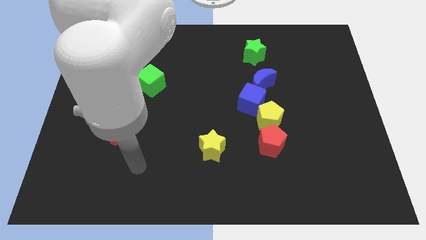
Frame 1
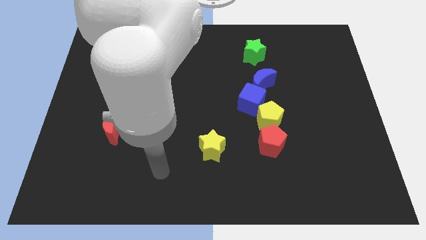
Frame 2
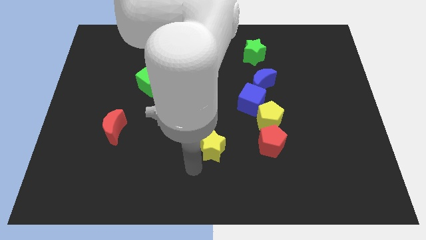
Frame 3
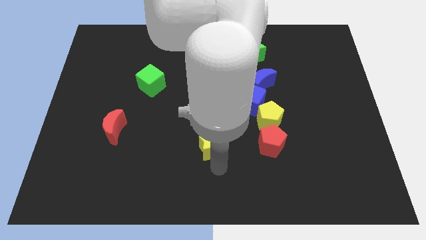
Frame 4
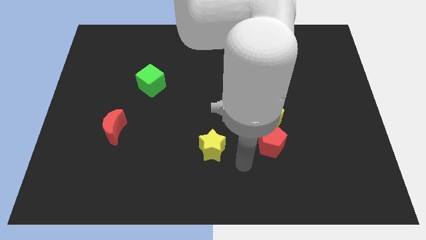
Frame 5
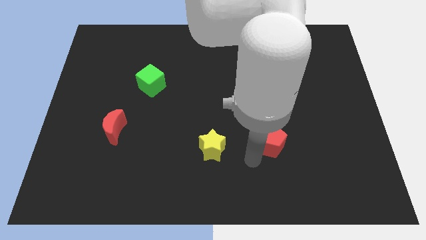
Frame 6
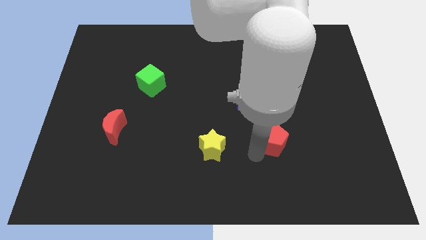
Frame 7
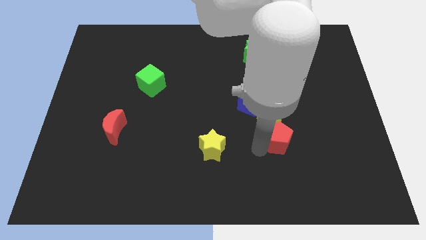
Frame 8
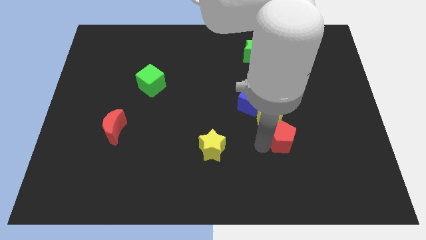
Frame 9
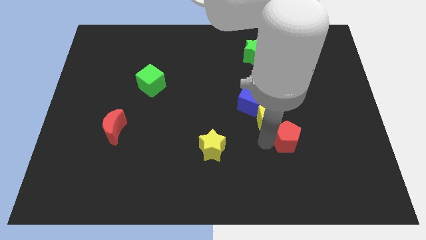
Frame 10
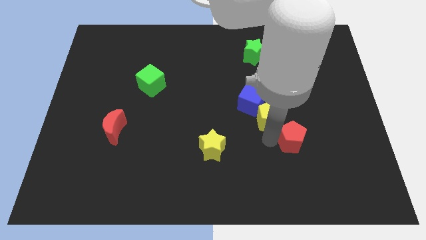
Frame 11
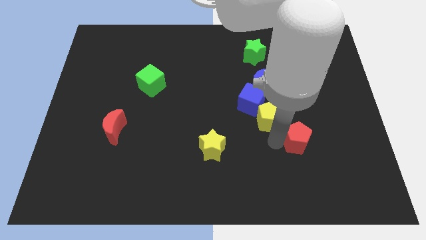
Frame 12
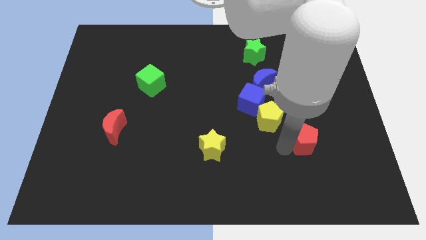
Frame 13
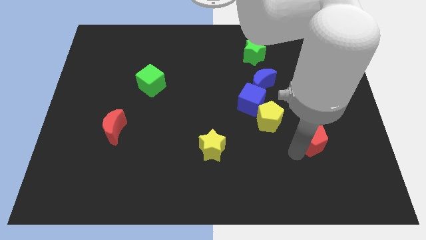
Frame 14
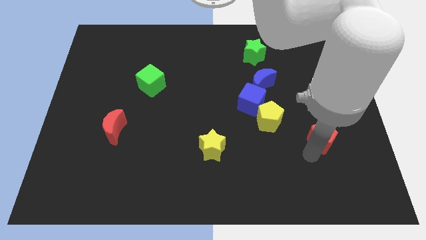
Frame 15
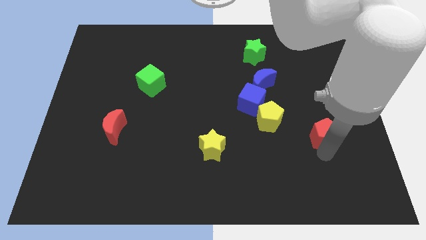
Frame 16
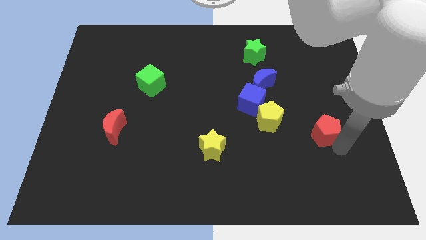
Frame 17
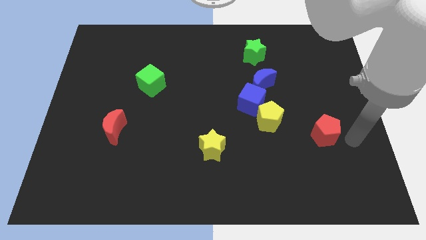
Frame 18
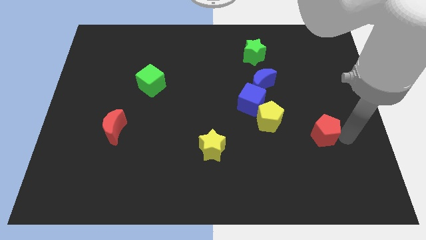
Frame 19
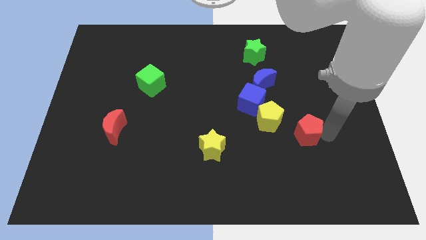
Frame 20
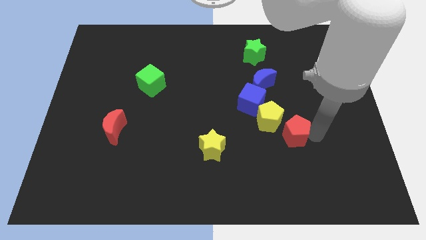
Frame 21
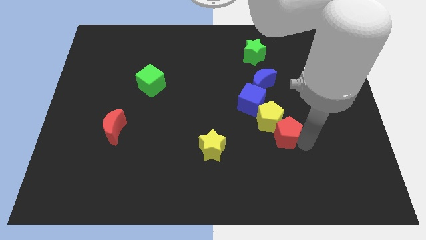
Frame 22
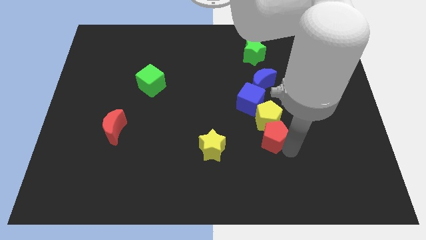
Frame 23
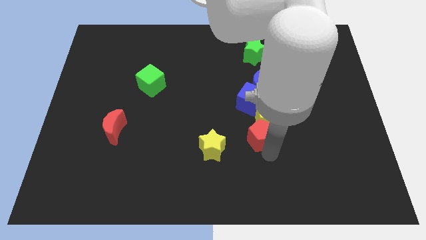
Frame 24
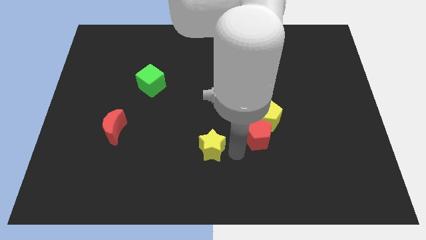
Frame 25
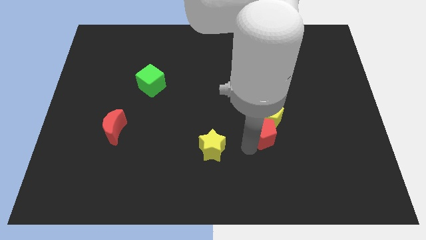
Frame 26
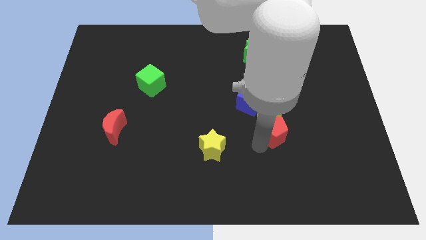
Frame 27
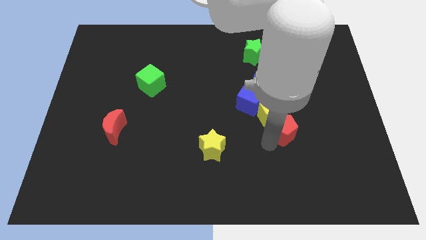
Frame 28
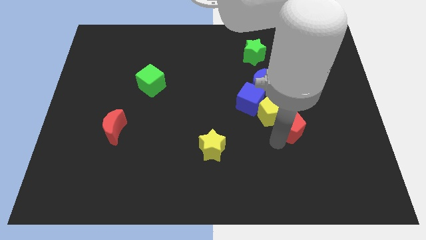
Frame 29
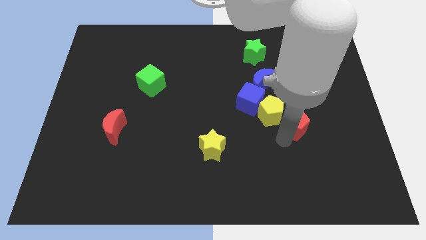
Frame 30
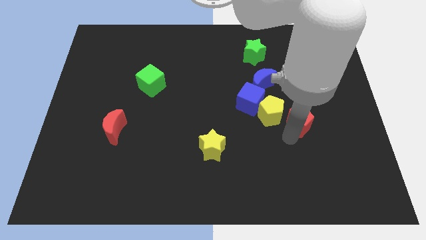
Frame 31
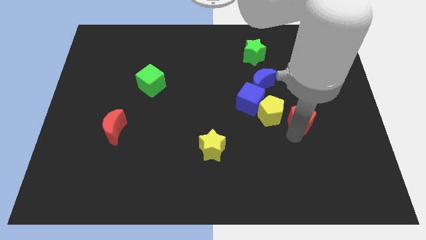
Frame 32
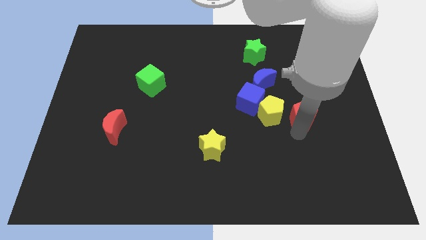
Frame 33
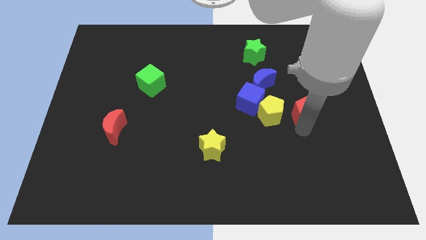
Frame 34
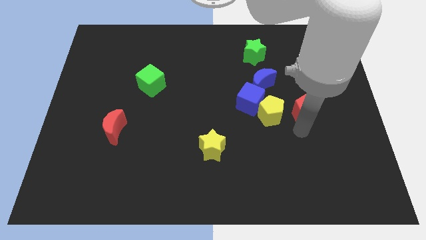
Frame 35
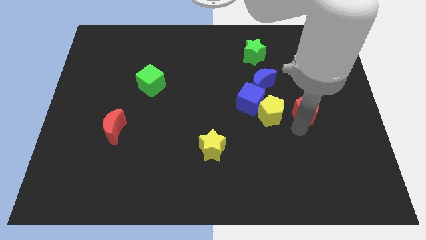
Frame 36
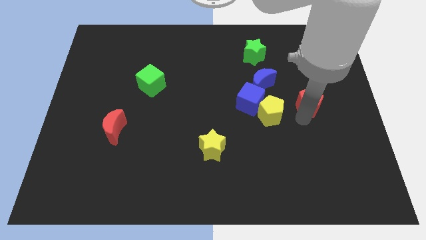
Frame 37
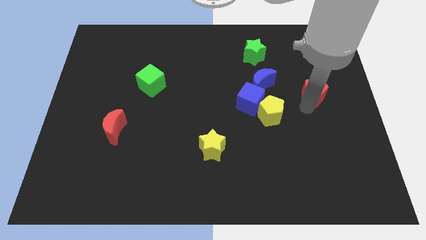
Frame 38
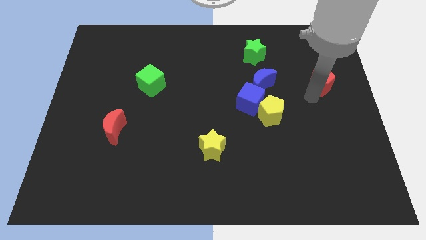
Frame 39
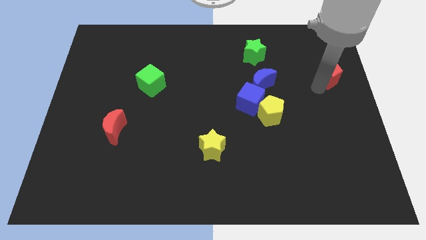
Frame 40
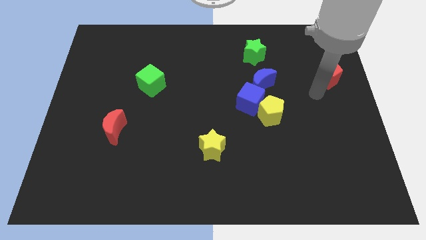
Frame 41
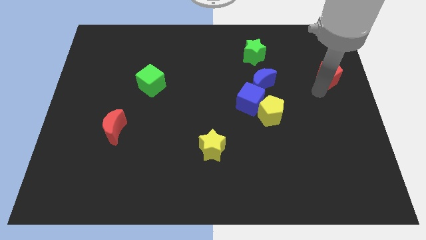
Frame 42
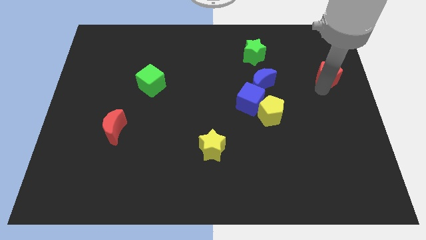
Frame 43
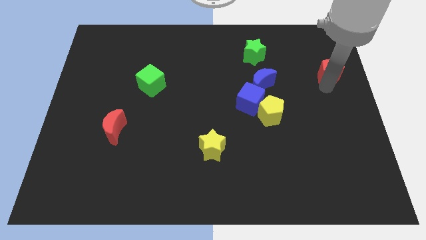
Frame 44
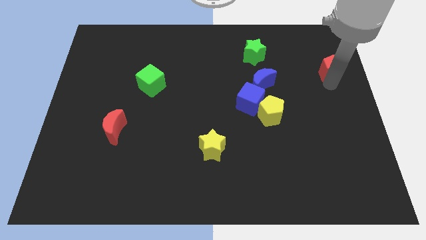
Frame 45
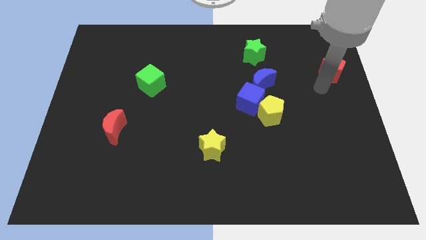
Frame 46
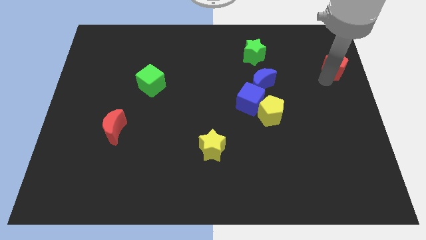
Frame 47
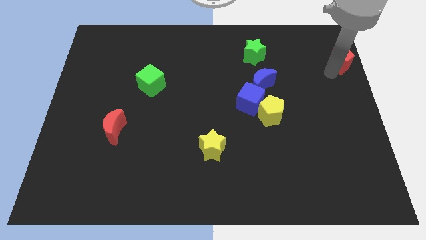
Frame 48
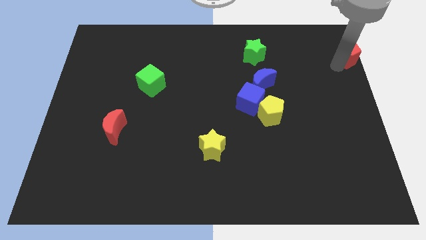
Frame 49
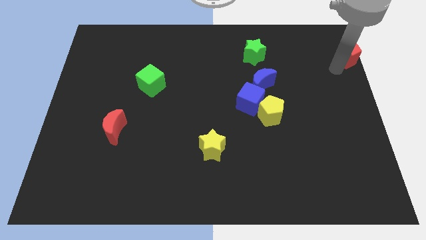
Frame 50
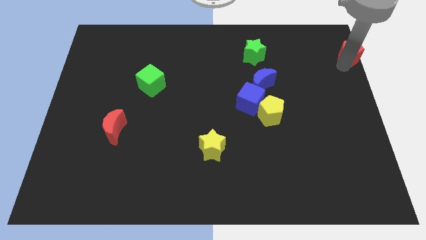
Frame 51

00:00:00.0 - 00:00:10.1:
put the red pentagon to the top right of the board

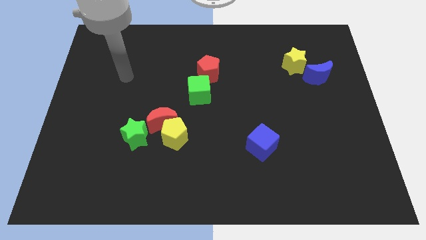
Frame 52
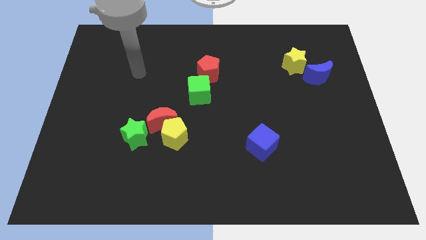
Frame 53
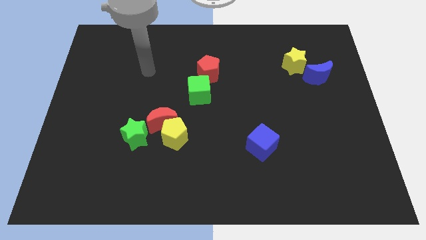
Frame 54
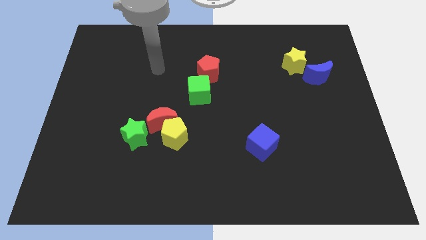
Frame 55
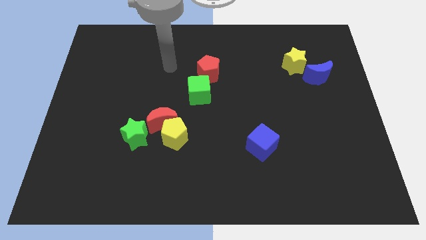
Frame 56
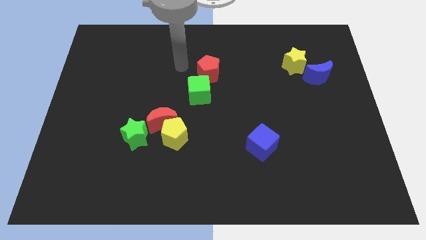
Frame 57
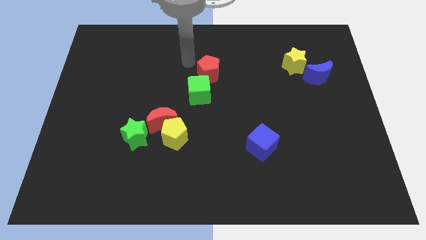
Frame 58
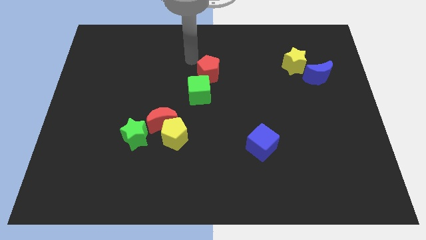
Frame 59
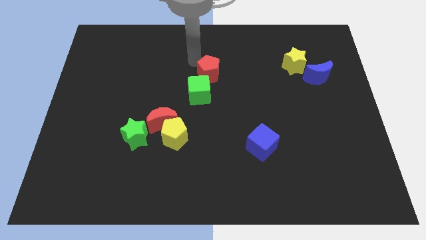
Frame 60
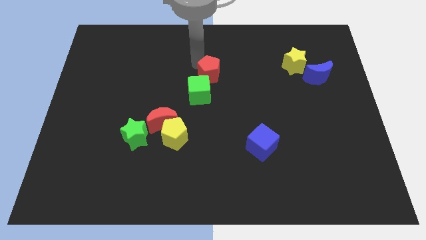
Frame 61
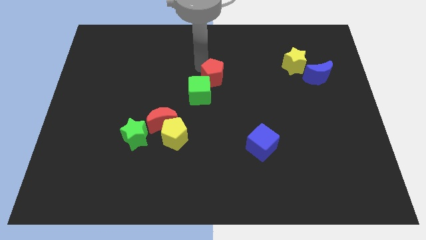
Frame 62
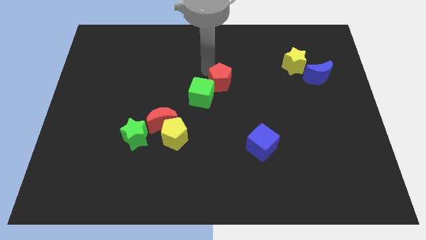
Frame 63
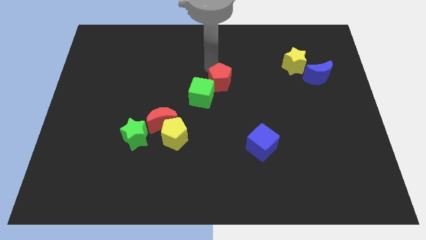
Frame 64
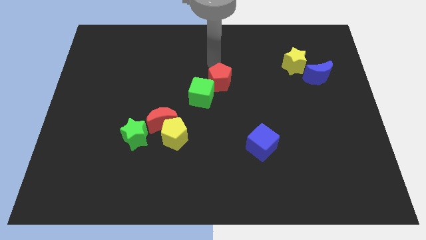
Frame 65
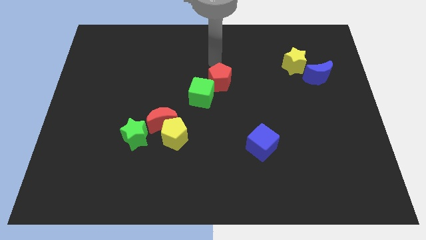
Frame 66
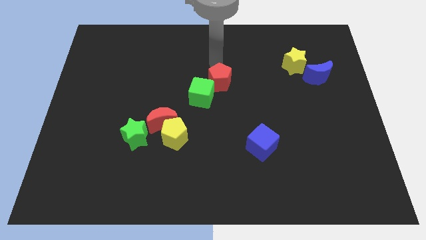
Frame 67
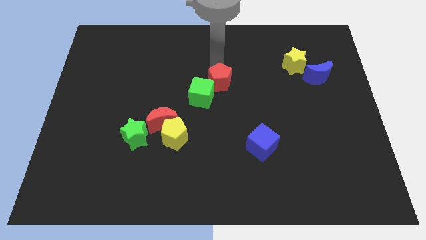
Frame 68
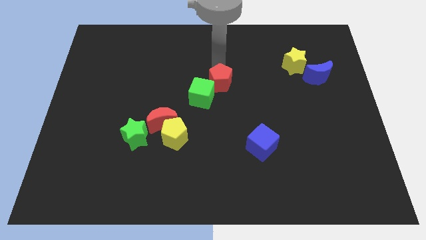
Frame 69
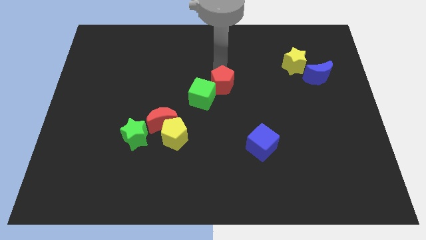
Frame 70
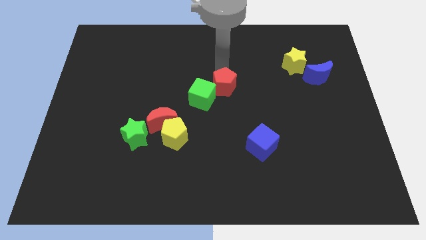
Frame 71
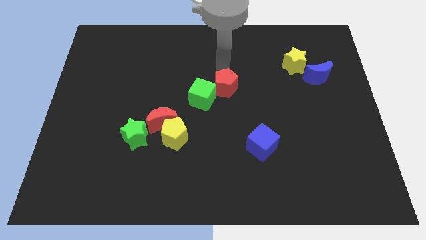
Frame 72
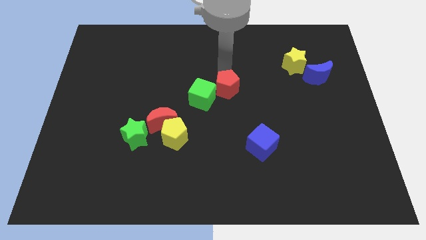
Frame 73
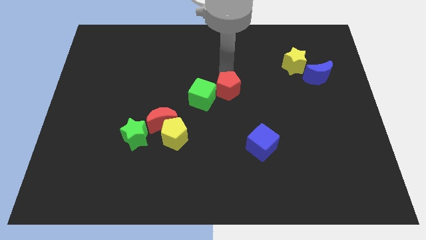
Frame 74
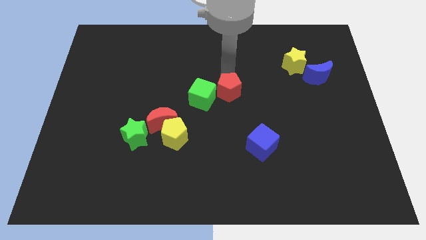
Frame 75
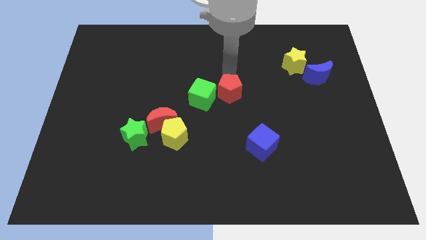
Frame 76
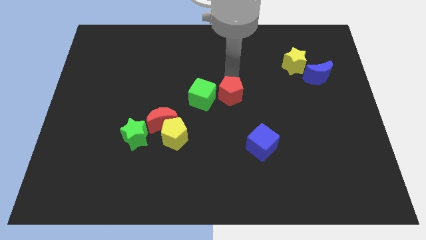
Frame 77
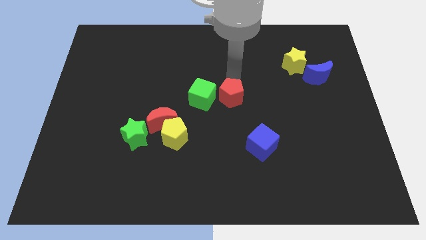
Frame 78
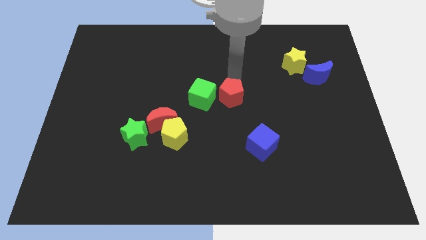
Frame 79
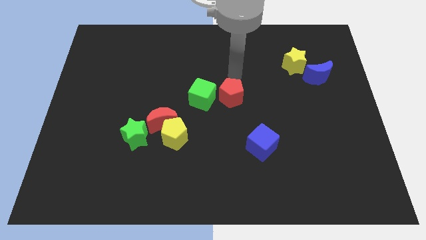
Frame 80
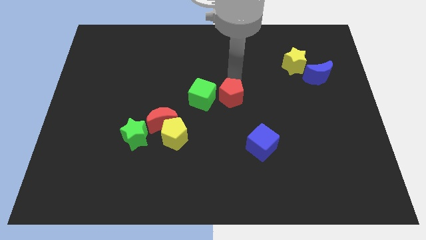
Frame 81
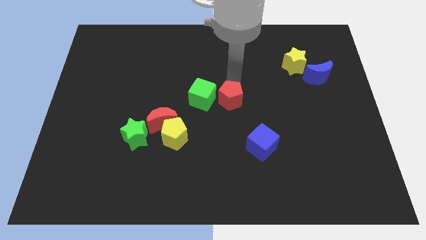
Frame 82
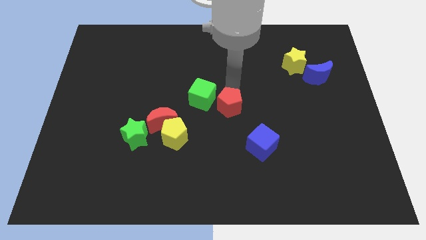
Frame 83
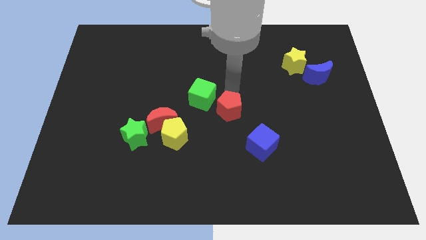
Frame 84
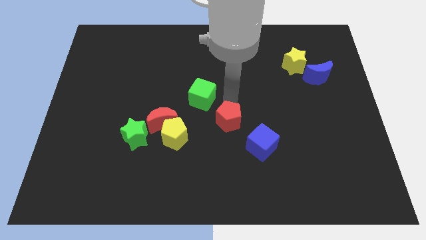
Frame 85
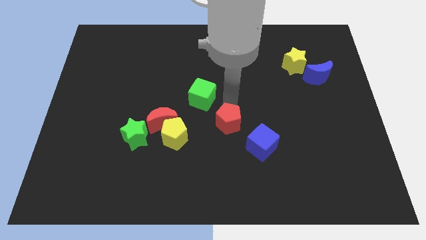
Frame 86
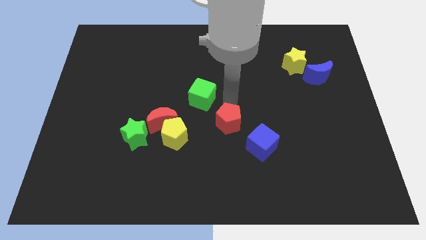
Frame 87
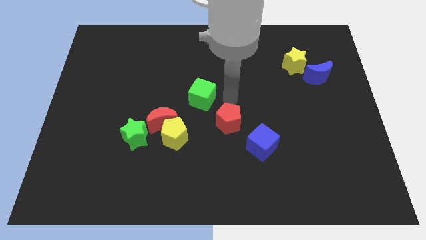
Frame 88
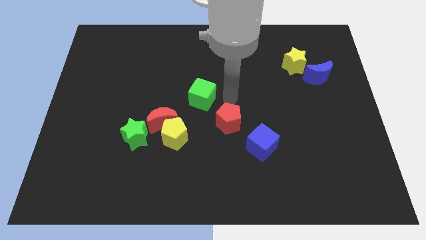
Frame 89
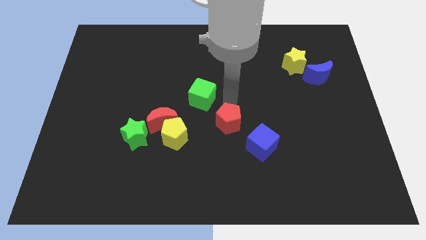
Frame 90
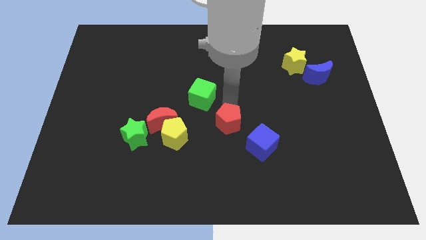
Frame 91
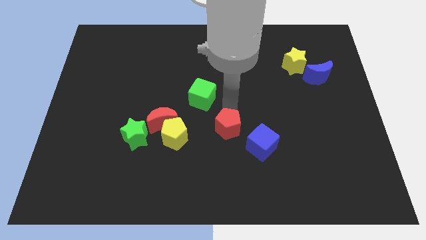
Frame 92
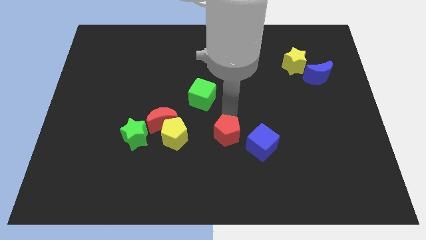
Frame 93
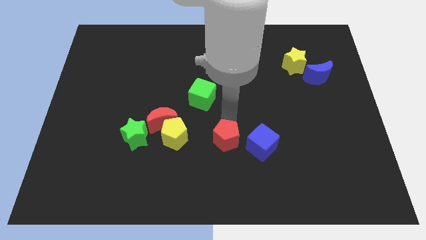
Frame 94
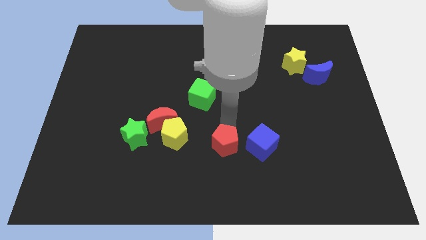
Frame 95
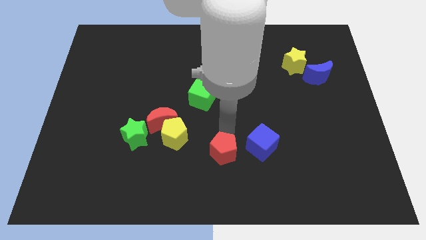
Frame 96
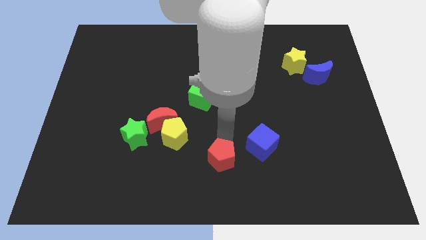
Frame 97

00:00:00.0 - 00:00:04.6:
slide the red pentagon to the bottom side
